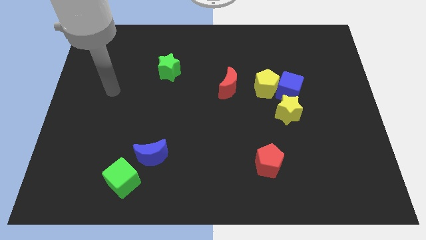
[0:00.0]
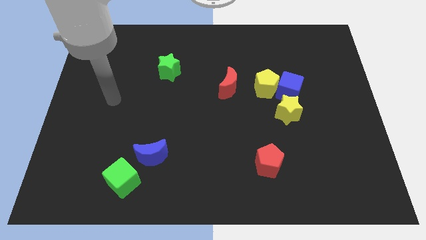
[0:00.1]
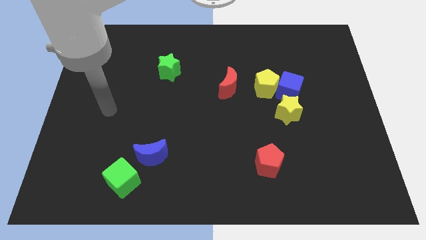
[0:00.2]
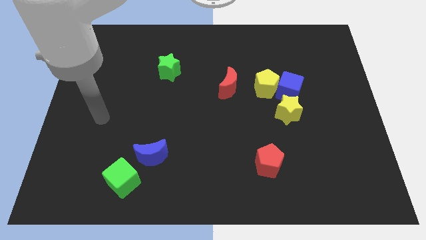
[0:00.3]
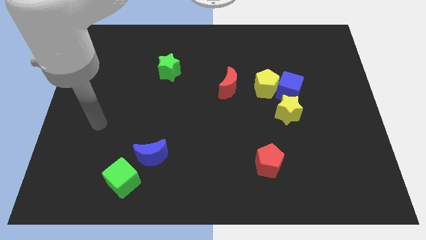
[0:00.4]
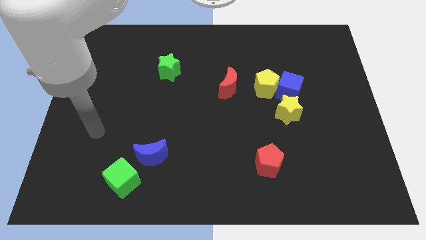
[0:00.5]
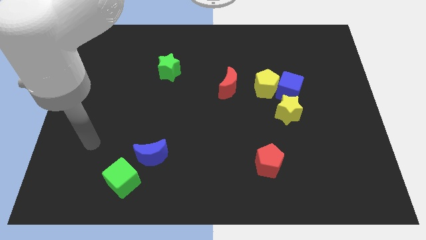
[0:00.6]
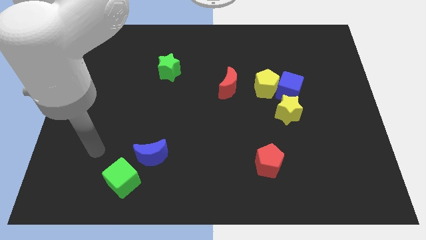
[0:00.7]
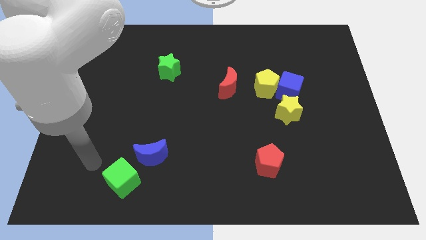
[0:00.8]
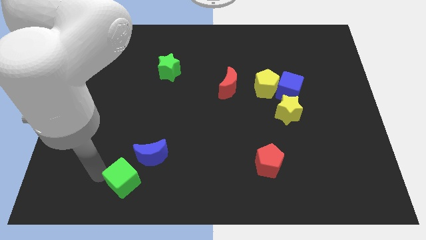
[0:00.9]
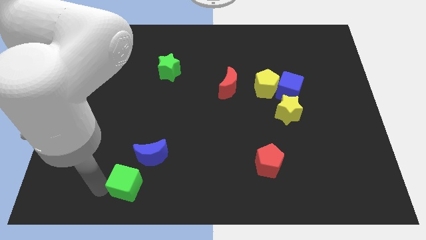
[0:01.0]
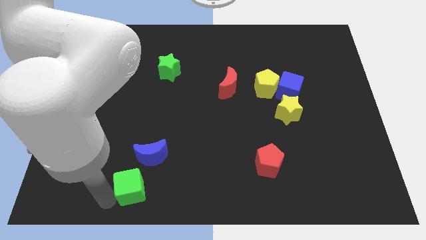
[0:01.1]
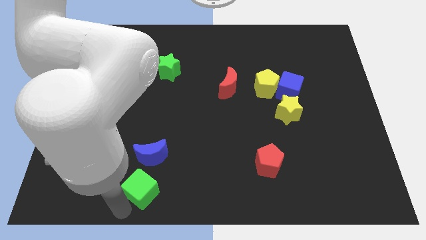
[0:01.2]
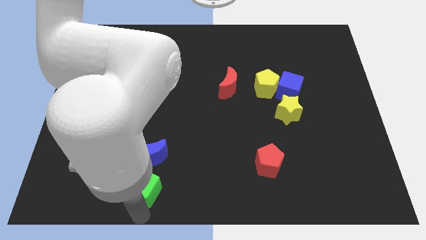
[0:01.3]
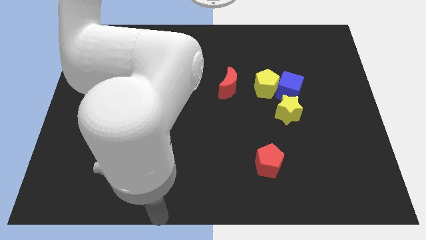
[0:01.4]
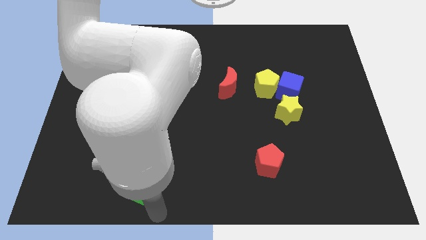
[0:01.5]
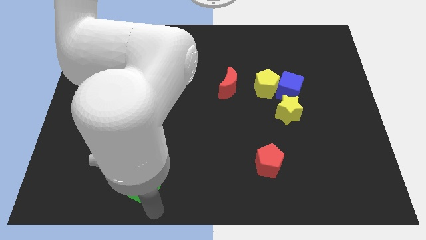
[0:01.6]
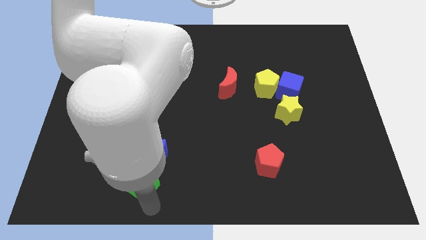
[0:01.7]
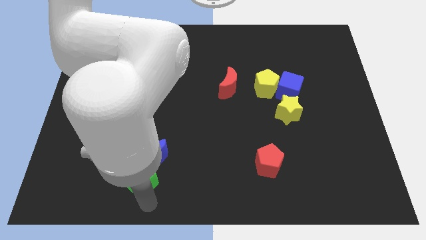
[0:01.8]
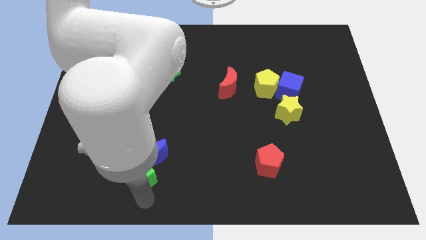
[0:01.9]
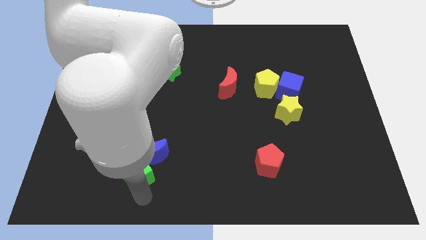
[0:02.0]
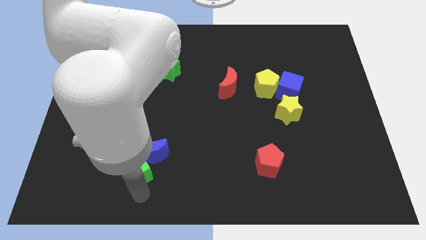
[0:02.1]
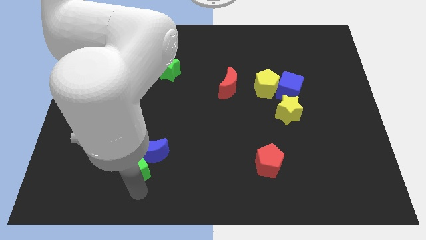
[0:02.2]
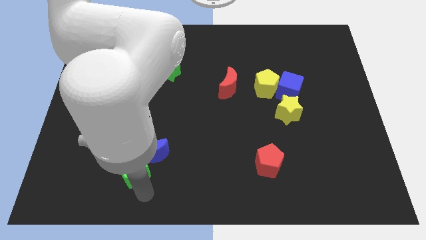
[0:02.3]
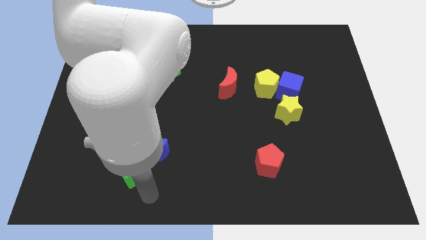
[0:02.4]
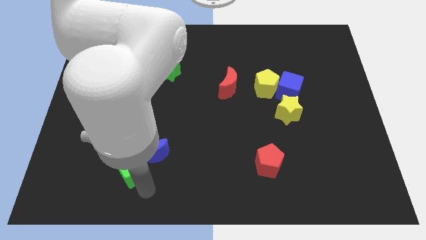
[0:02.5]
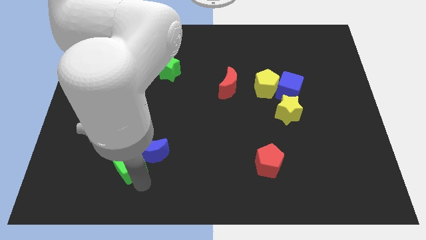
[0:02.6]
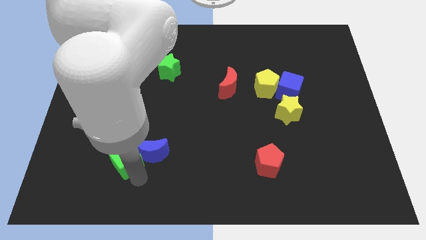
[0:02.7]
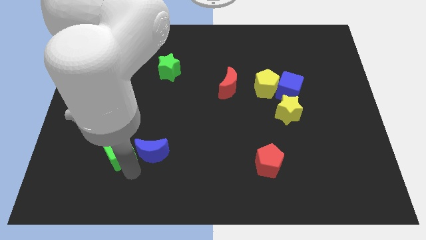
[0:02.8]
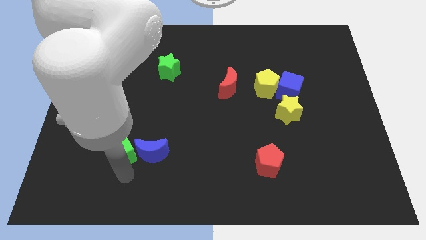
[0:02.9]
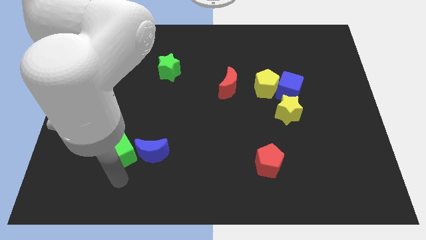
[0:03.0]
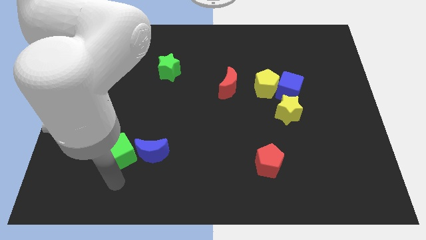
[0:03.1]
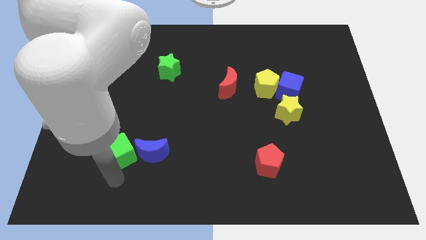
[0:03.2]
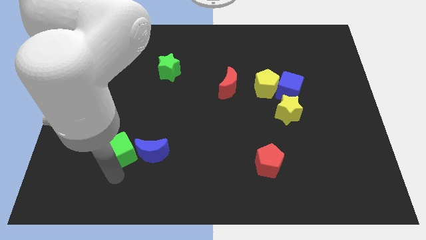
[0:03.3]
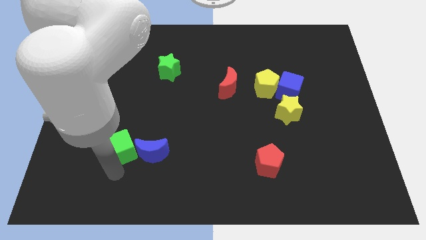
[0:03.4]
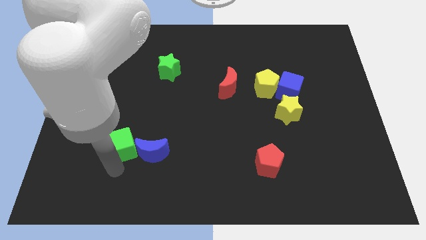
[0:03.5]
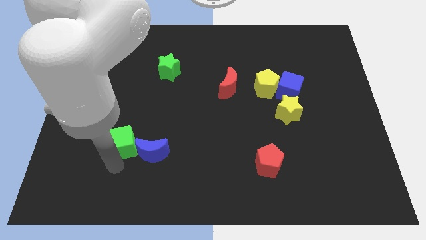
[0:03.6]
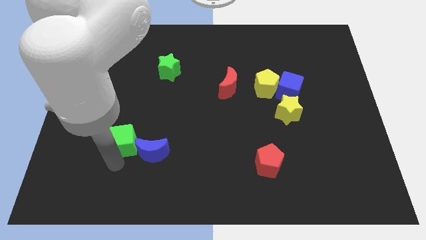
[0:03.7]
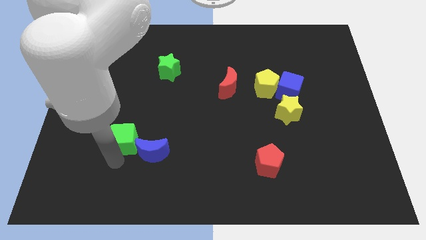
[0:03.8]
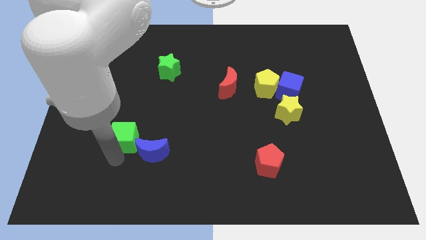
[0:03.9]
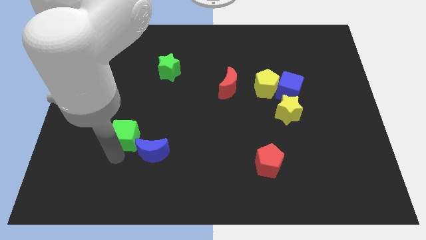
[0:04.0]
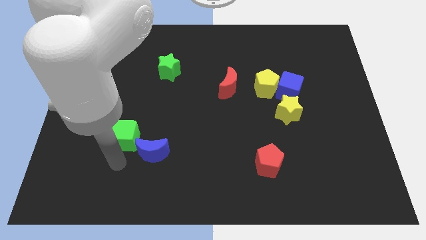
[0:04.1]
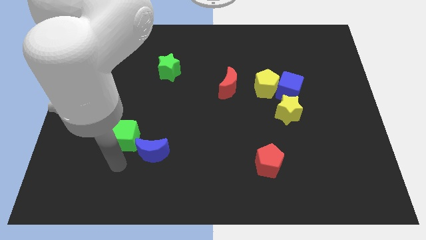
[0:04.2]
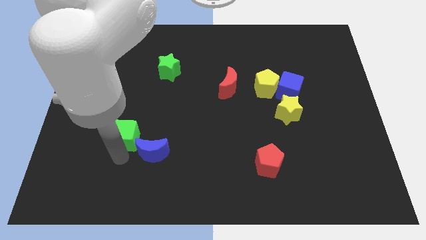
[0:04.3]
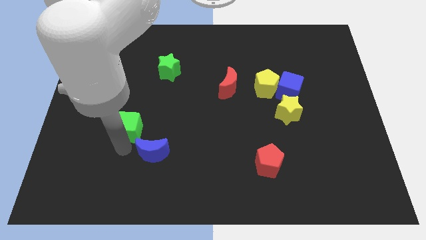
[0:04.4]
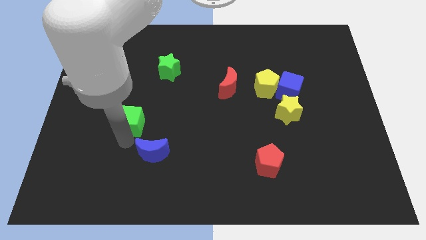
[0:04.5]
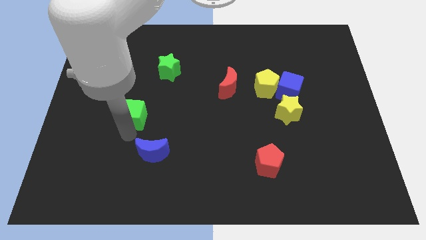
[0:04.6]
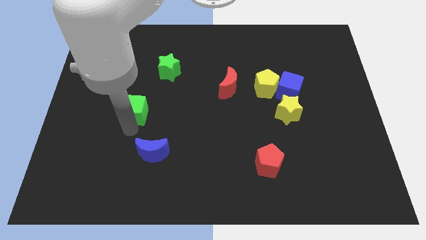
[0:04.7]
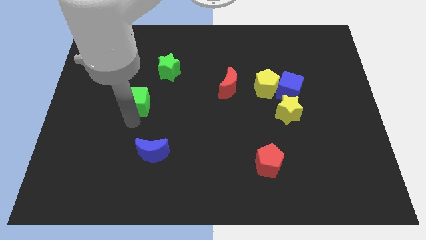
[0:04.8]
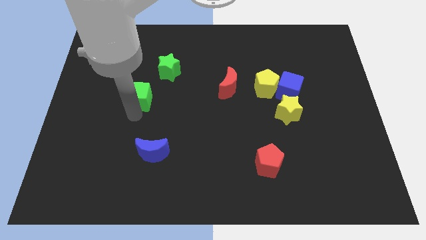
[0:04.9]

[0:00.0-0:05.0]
move the green cube diagonally down and to the left of the green star

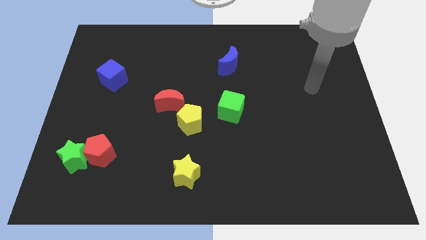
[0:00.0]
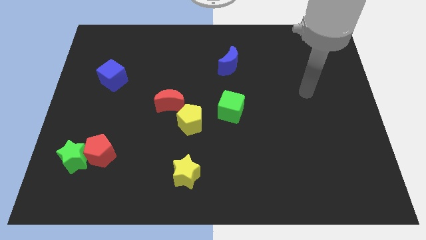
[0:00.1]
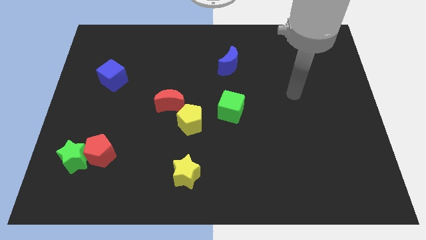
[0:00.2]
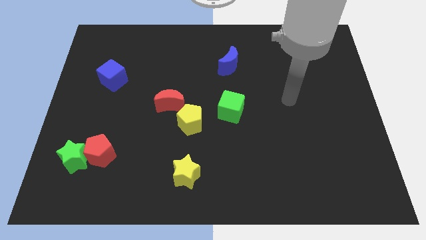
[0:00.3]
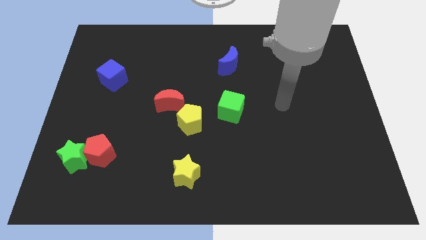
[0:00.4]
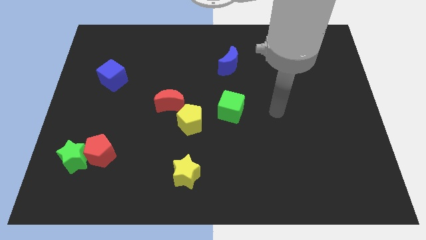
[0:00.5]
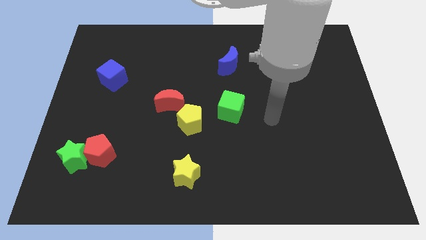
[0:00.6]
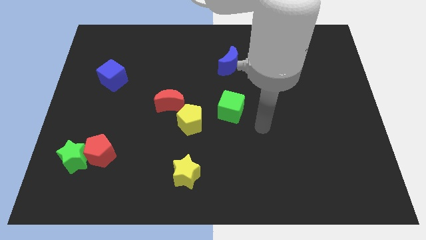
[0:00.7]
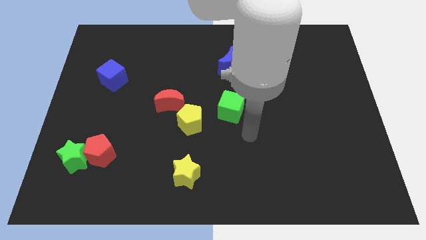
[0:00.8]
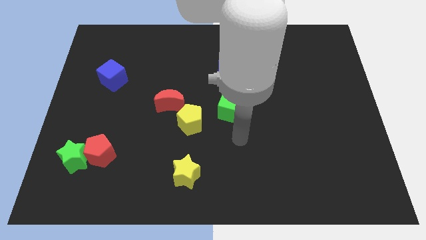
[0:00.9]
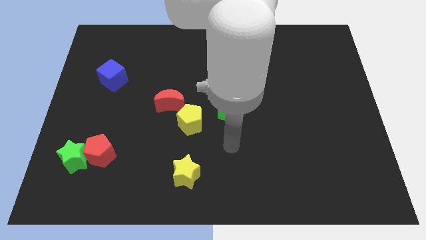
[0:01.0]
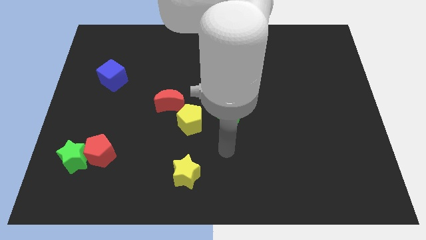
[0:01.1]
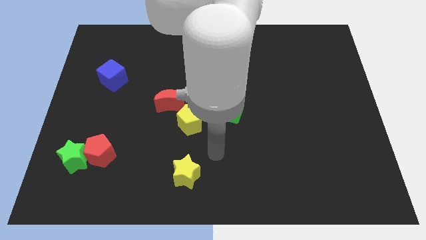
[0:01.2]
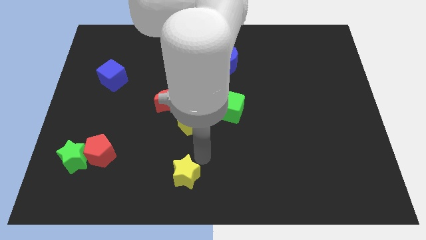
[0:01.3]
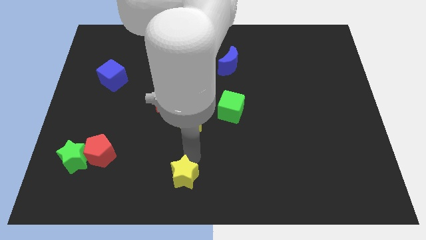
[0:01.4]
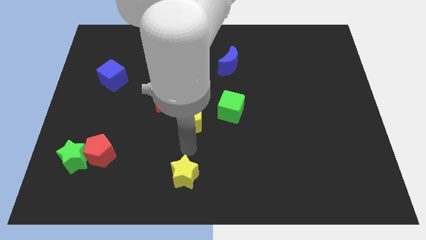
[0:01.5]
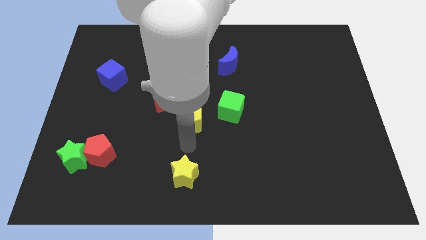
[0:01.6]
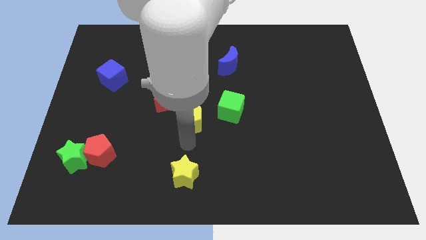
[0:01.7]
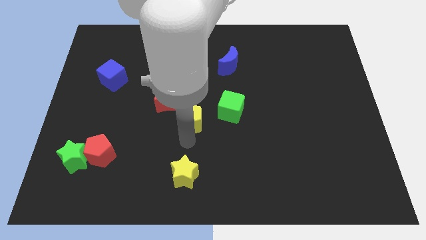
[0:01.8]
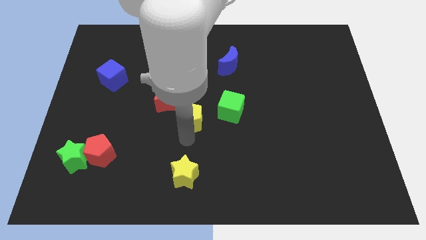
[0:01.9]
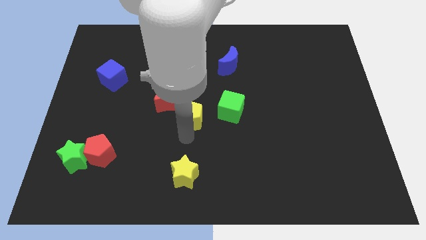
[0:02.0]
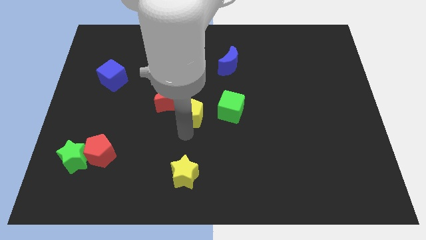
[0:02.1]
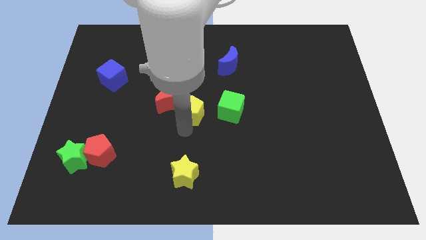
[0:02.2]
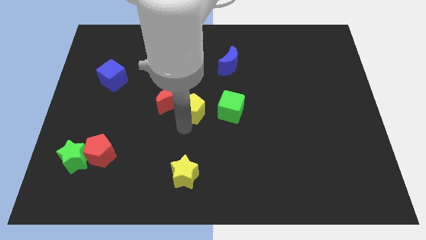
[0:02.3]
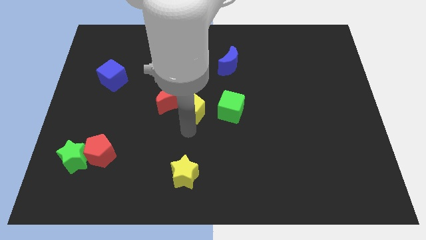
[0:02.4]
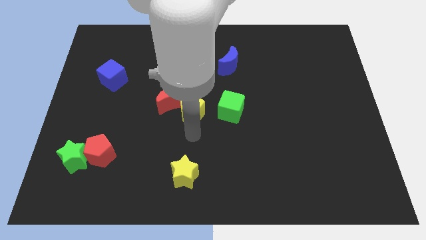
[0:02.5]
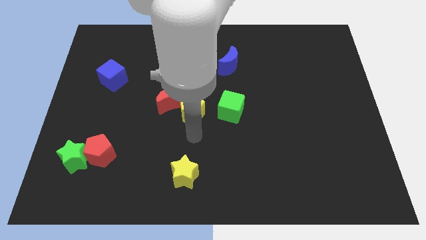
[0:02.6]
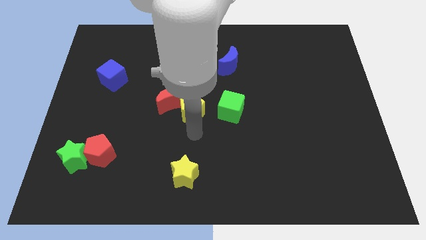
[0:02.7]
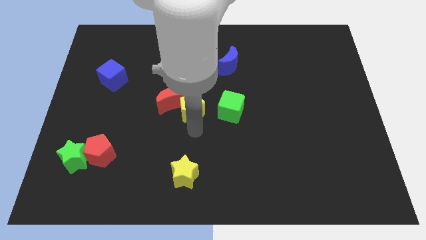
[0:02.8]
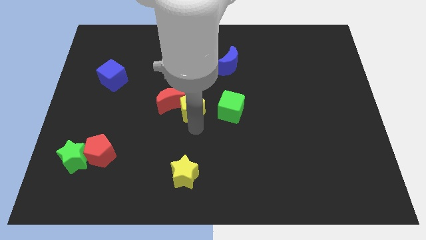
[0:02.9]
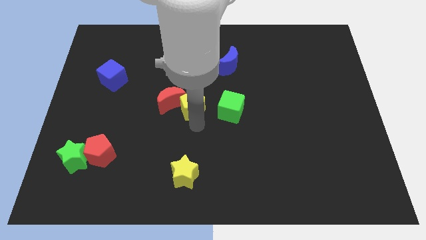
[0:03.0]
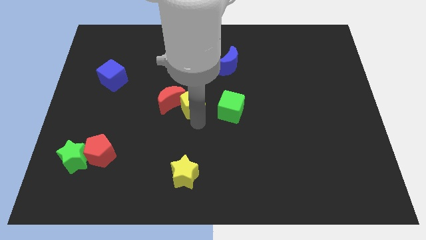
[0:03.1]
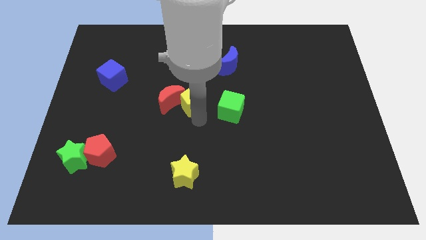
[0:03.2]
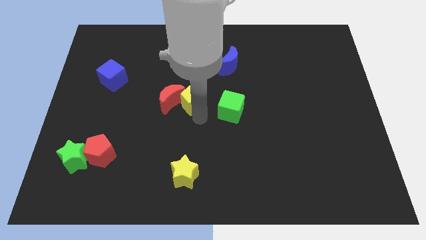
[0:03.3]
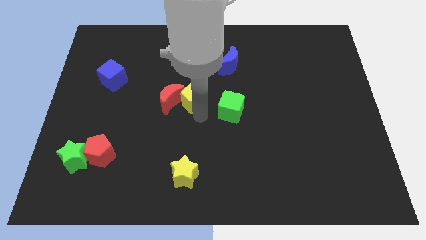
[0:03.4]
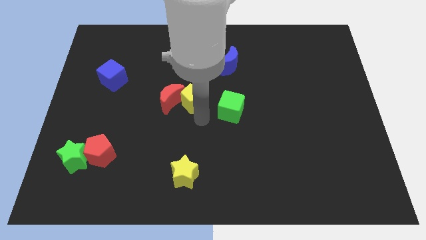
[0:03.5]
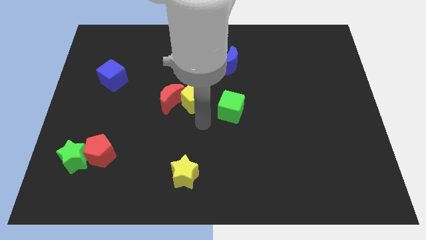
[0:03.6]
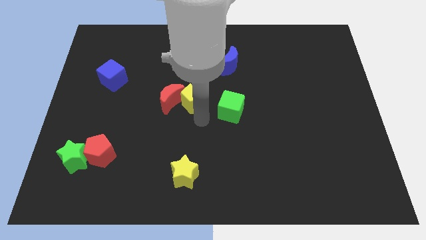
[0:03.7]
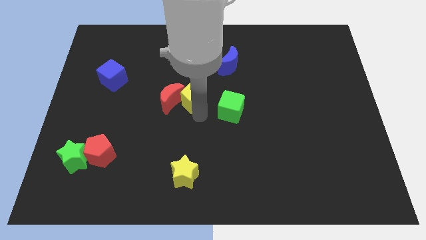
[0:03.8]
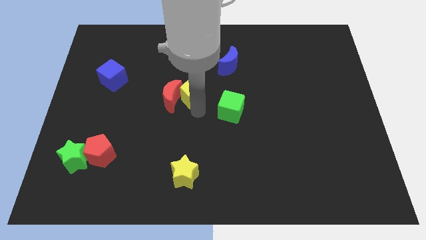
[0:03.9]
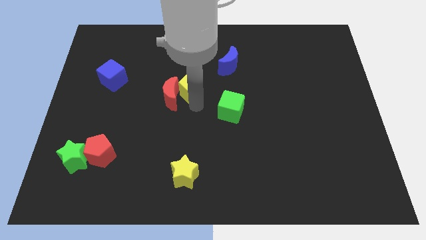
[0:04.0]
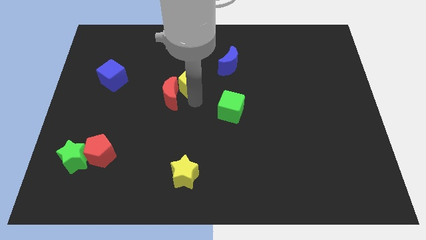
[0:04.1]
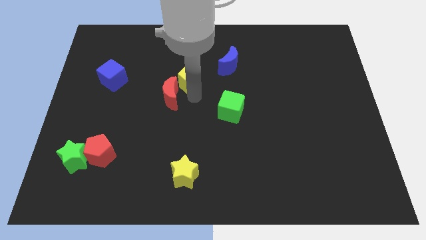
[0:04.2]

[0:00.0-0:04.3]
slide the yellow pentagon to the top of the red moon
